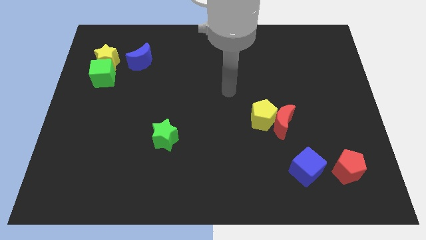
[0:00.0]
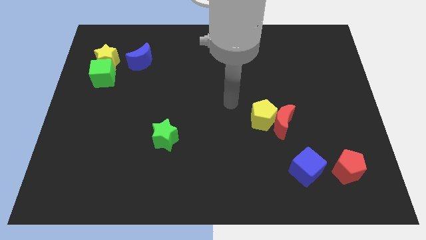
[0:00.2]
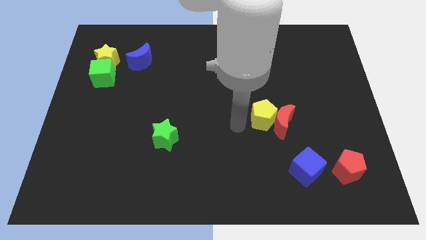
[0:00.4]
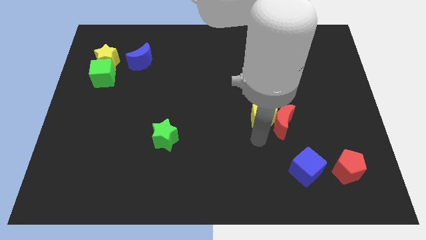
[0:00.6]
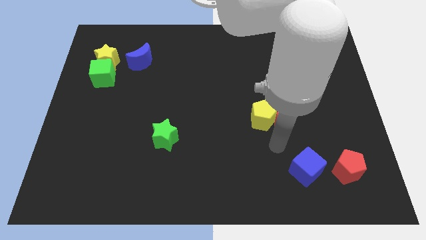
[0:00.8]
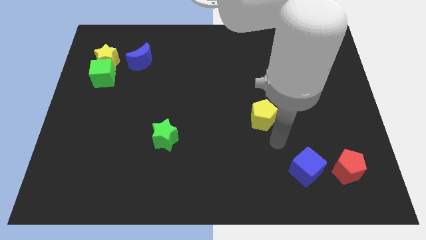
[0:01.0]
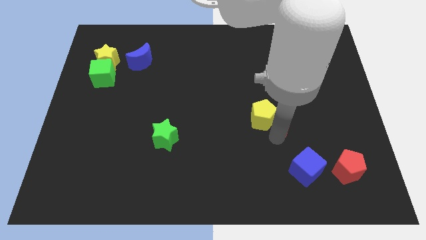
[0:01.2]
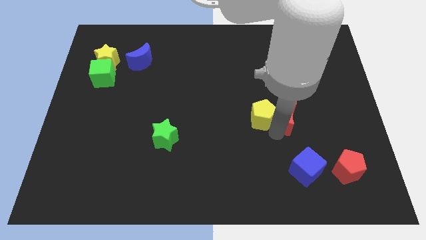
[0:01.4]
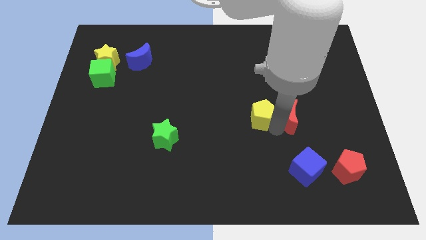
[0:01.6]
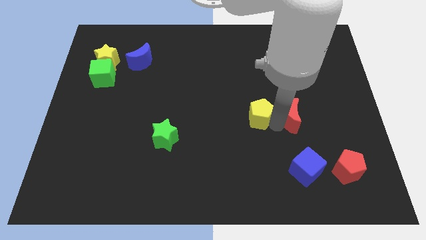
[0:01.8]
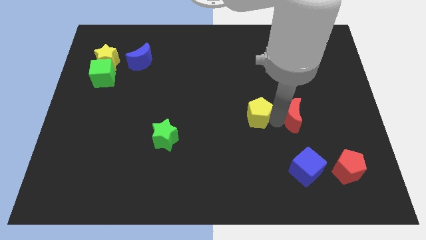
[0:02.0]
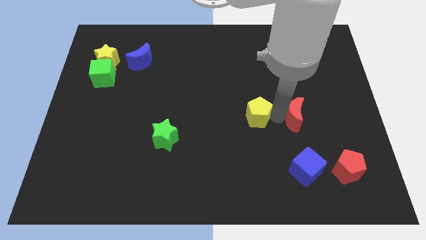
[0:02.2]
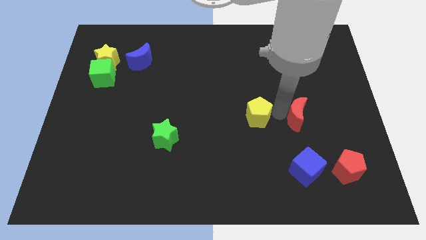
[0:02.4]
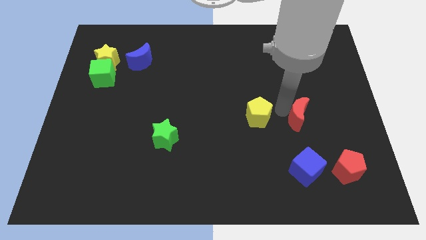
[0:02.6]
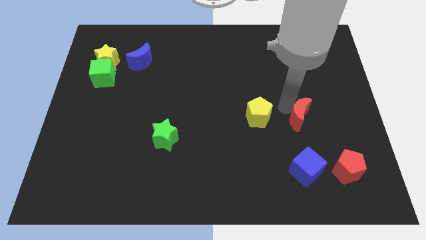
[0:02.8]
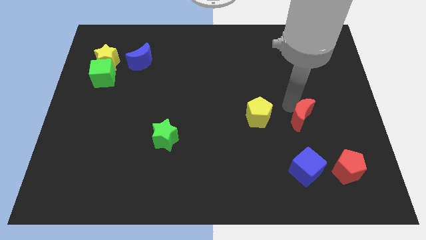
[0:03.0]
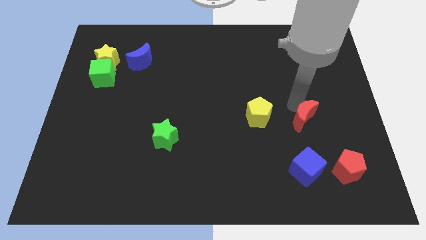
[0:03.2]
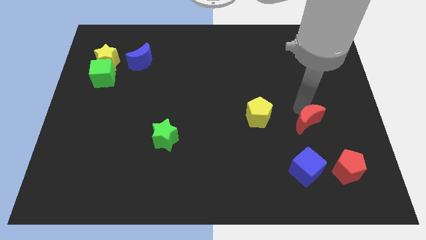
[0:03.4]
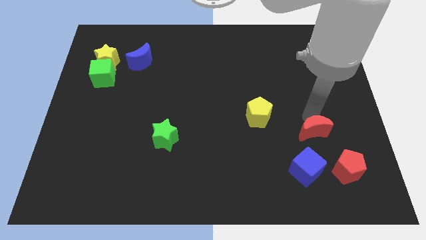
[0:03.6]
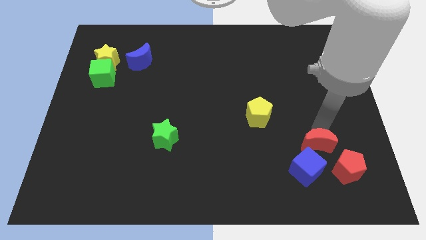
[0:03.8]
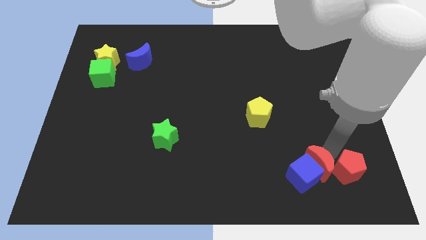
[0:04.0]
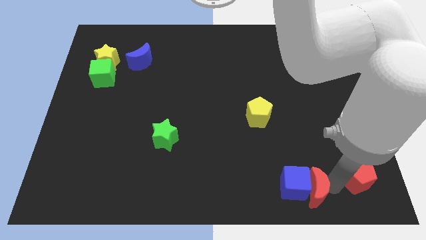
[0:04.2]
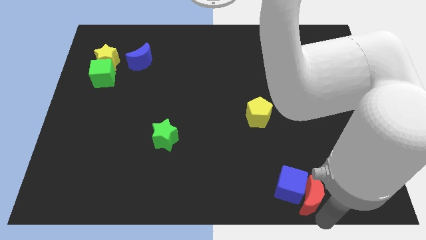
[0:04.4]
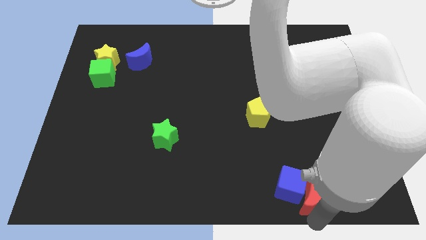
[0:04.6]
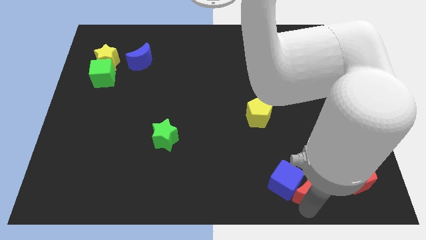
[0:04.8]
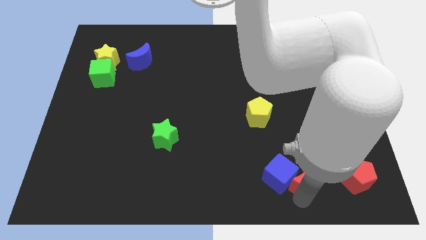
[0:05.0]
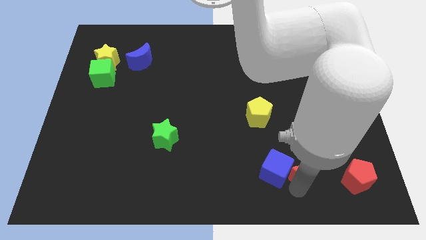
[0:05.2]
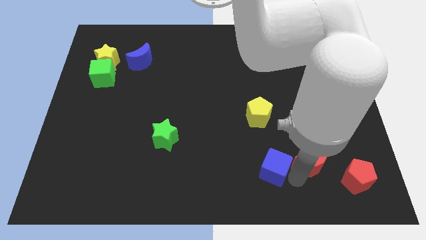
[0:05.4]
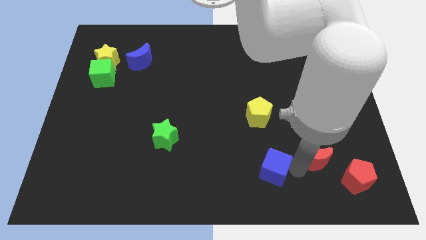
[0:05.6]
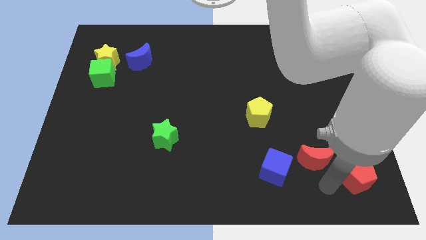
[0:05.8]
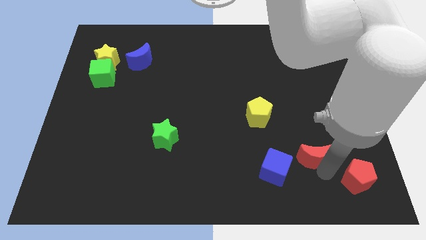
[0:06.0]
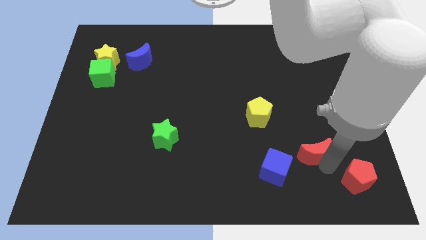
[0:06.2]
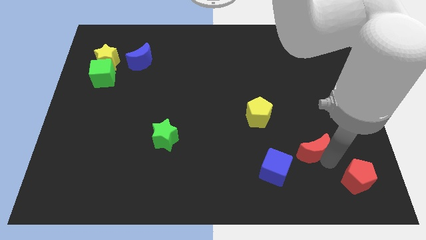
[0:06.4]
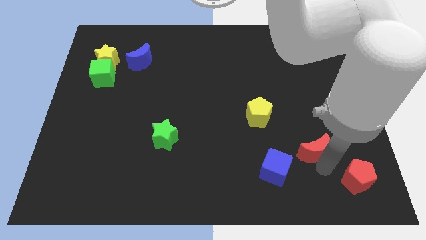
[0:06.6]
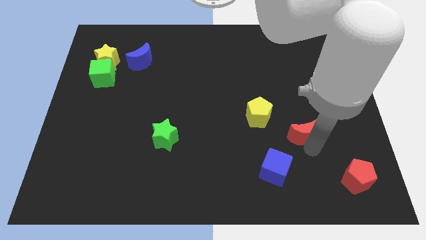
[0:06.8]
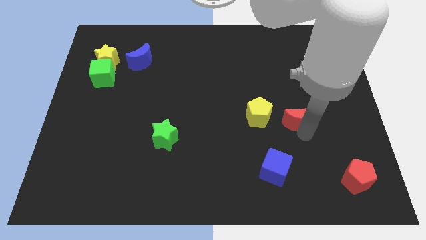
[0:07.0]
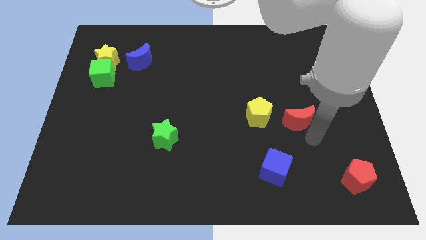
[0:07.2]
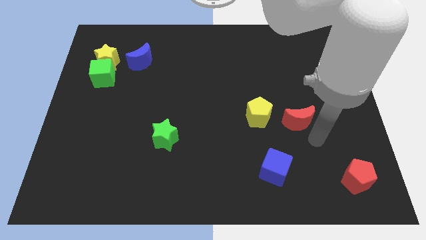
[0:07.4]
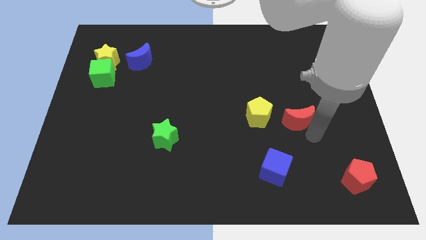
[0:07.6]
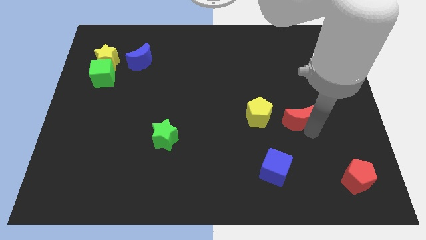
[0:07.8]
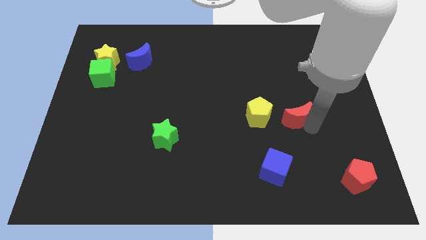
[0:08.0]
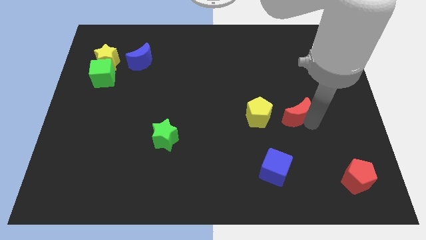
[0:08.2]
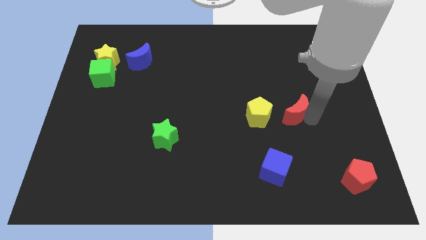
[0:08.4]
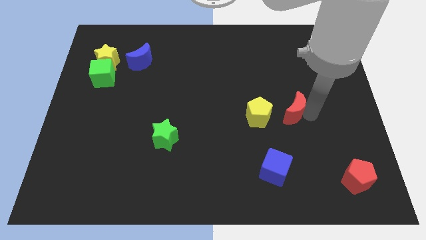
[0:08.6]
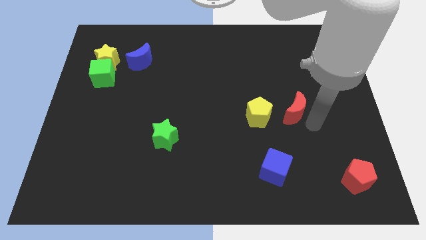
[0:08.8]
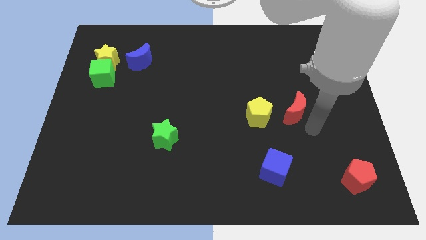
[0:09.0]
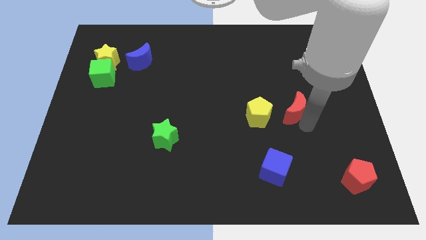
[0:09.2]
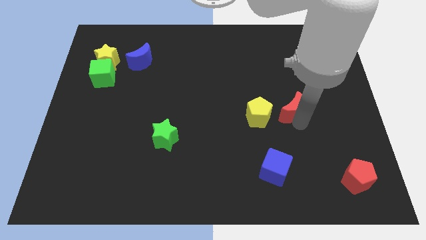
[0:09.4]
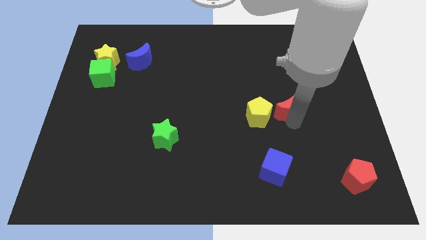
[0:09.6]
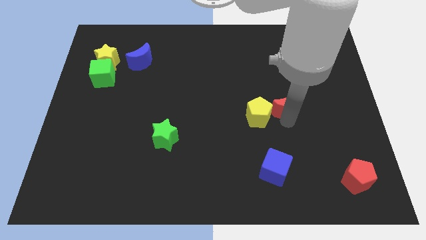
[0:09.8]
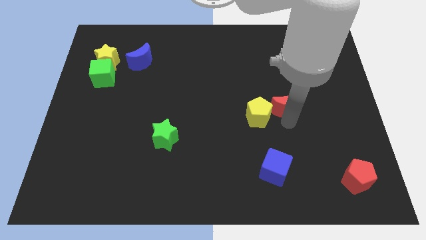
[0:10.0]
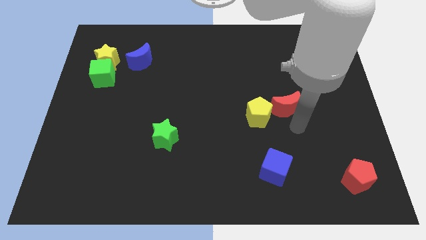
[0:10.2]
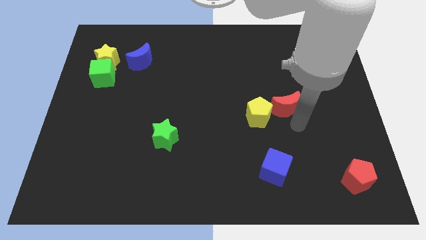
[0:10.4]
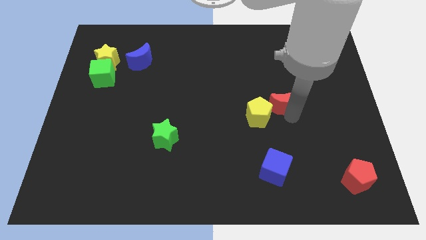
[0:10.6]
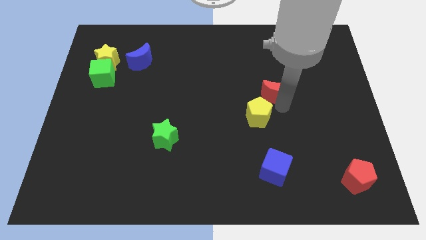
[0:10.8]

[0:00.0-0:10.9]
slide the red moon upwards a little bit

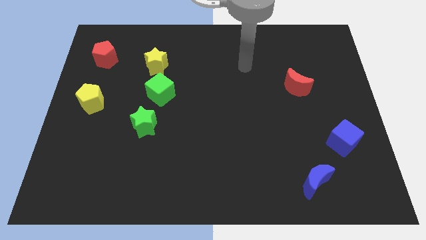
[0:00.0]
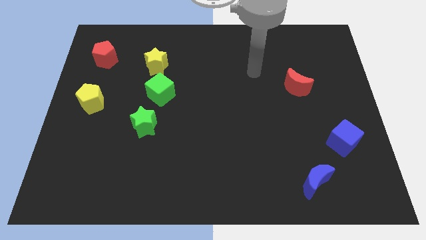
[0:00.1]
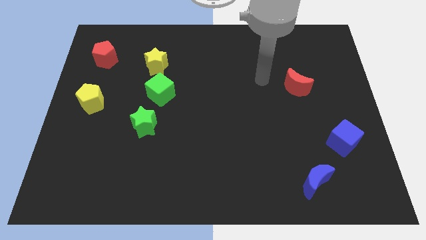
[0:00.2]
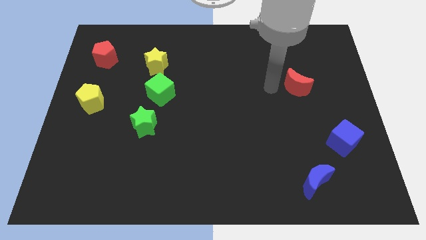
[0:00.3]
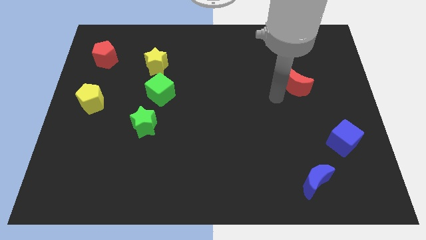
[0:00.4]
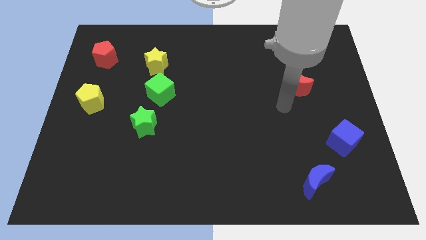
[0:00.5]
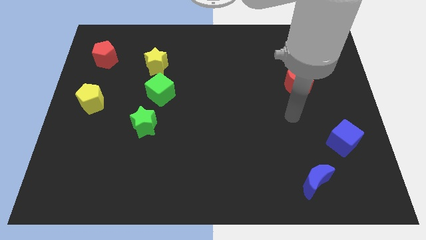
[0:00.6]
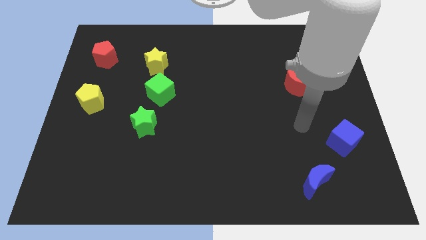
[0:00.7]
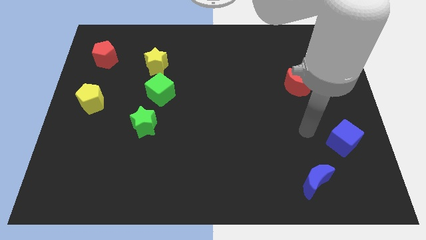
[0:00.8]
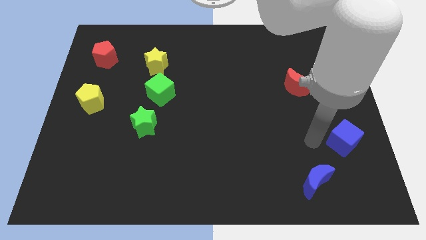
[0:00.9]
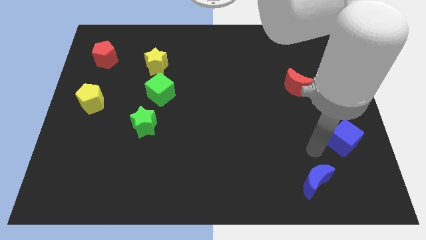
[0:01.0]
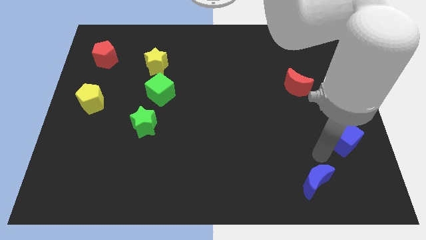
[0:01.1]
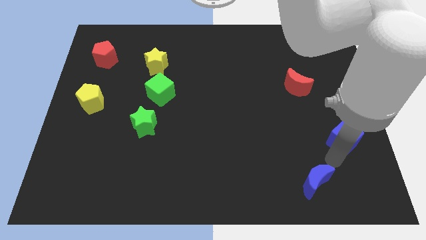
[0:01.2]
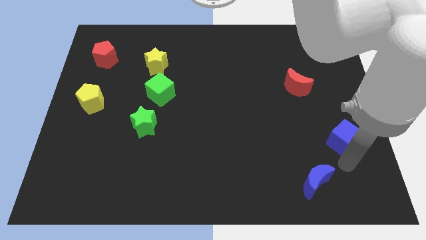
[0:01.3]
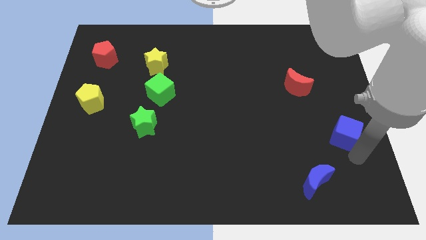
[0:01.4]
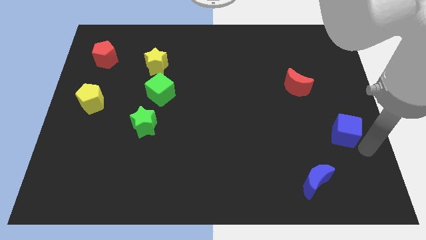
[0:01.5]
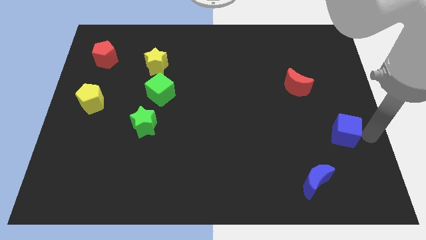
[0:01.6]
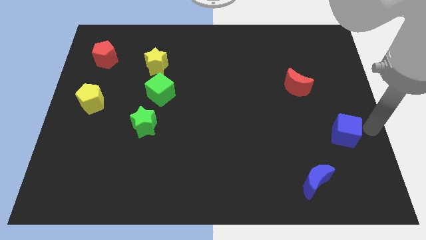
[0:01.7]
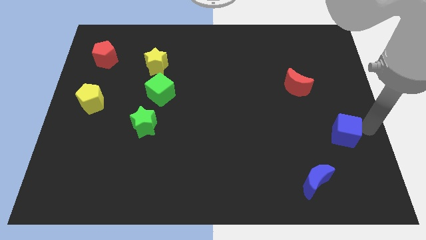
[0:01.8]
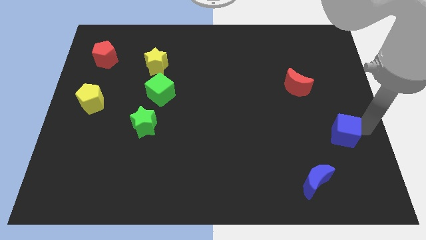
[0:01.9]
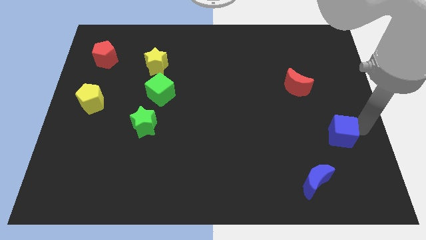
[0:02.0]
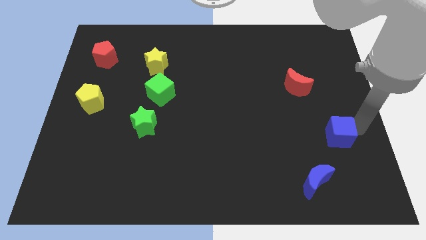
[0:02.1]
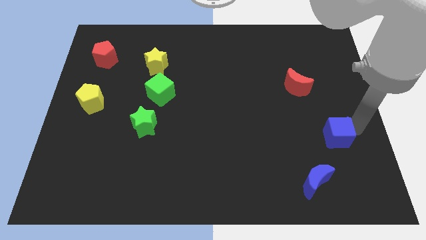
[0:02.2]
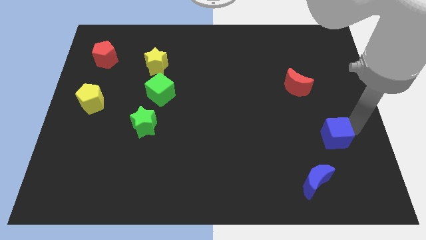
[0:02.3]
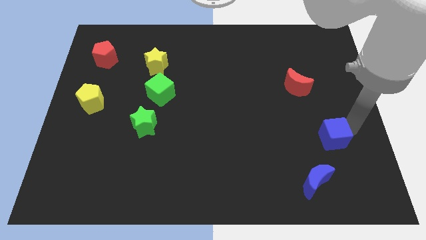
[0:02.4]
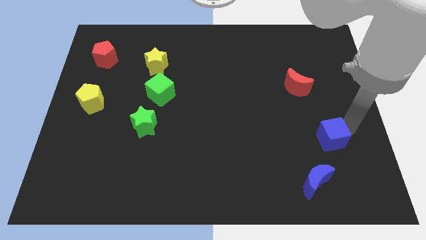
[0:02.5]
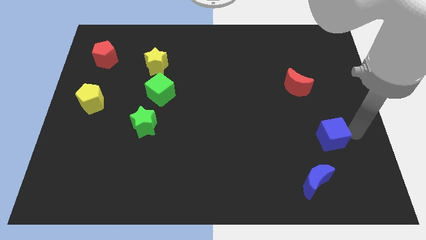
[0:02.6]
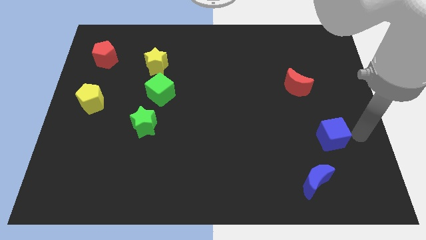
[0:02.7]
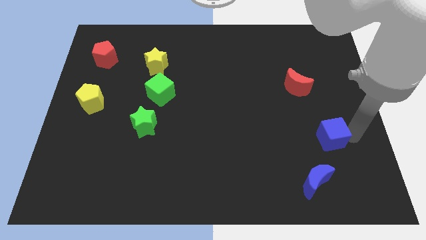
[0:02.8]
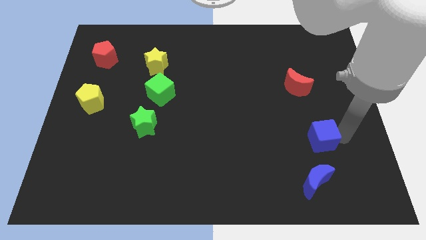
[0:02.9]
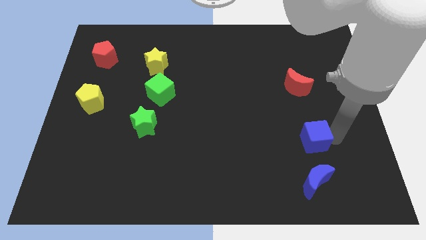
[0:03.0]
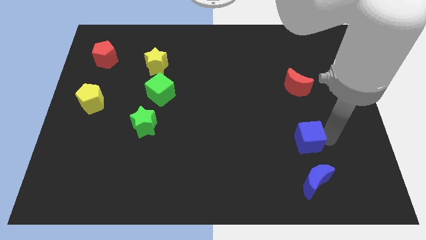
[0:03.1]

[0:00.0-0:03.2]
move the blue cube a little to the left
